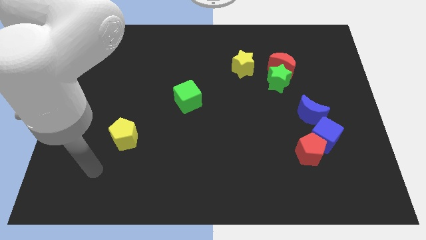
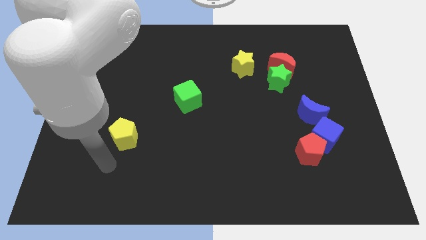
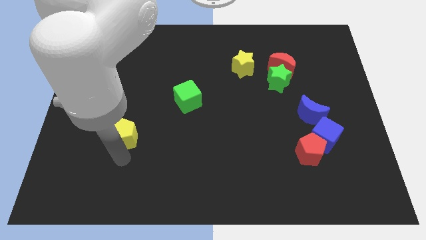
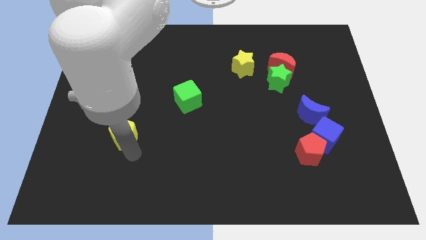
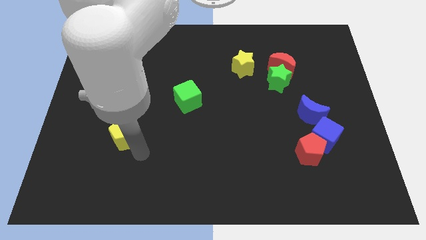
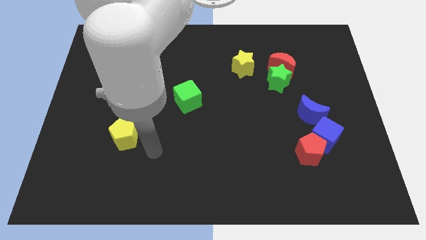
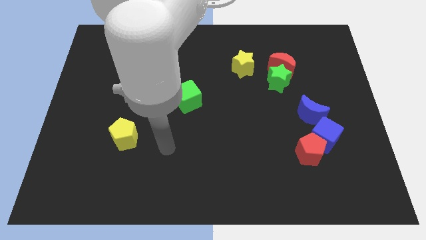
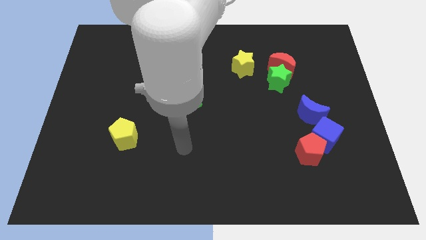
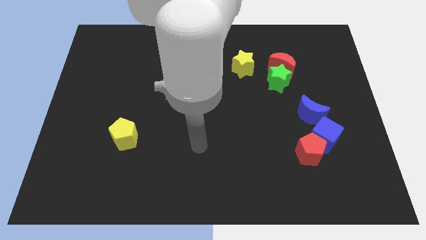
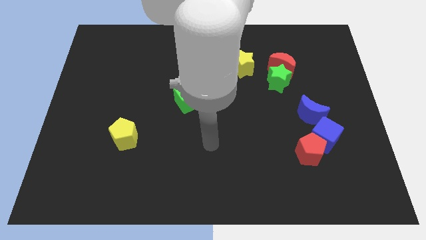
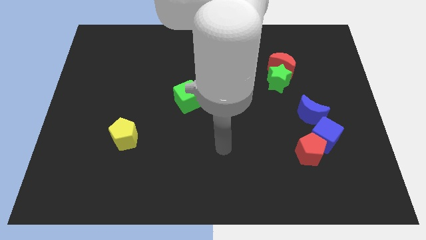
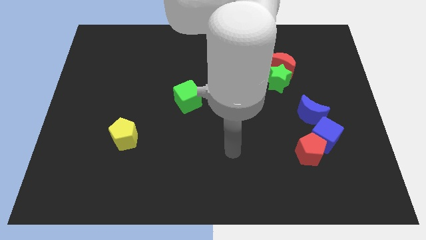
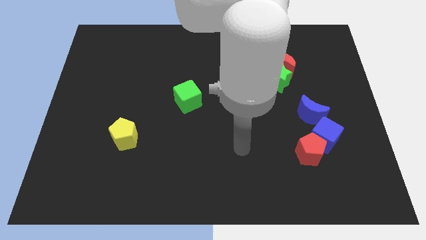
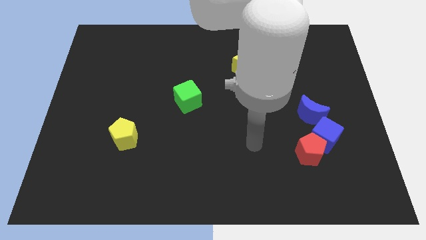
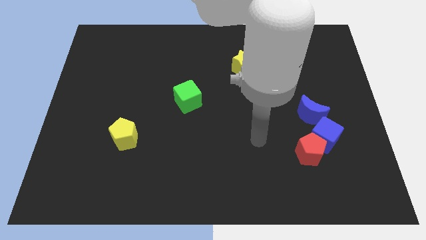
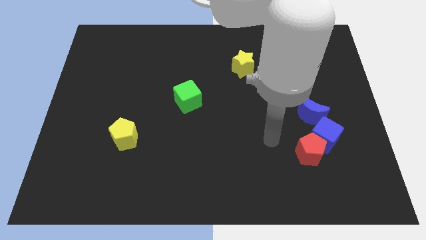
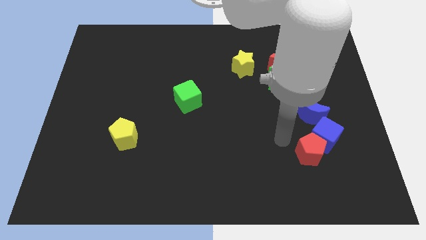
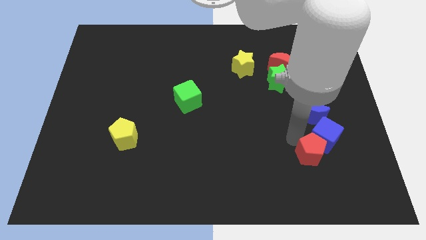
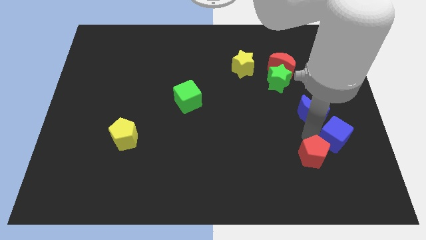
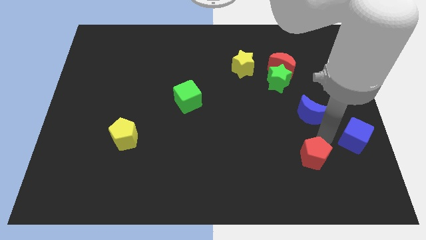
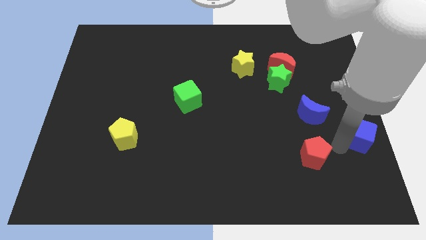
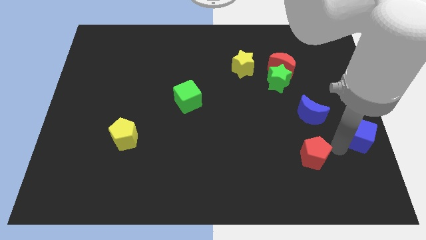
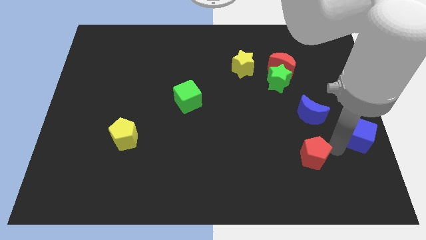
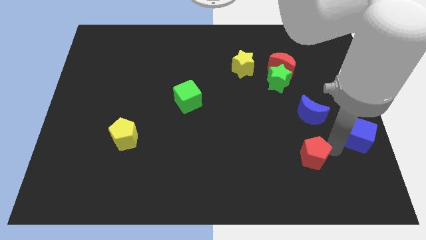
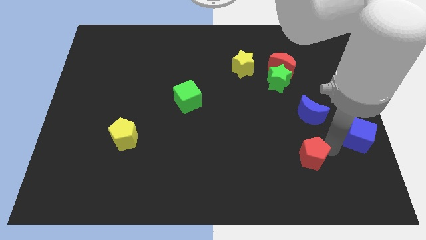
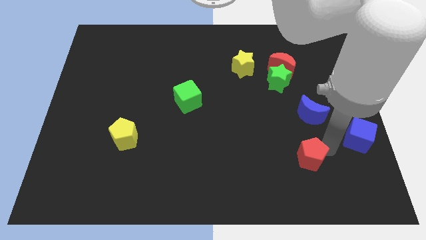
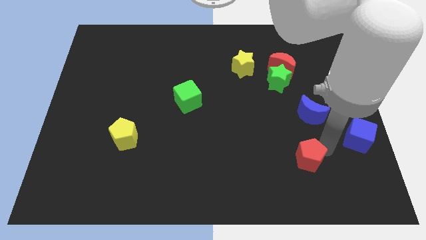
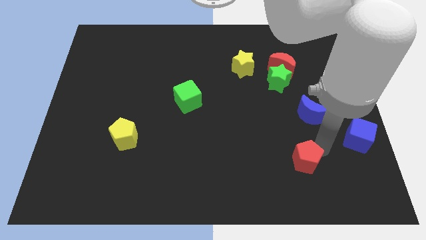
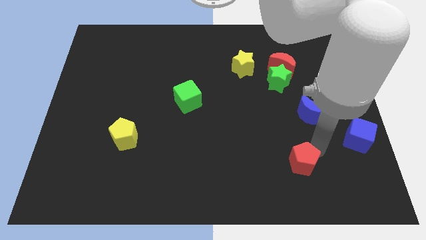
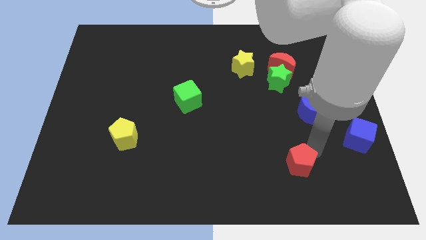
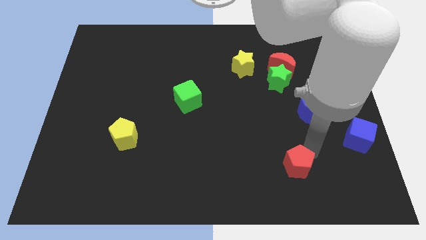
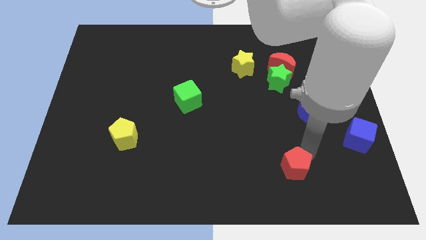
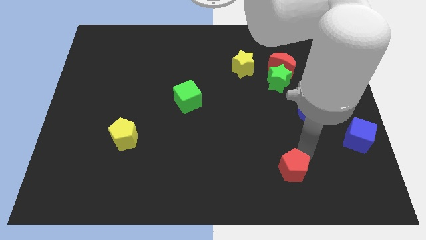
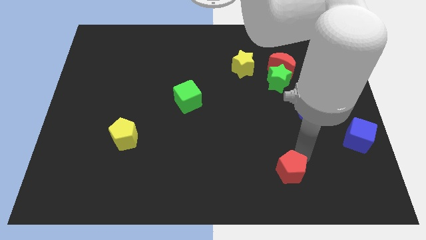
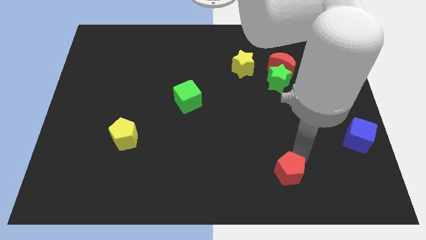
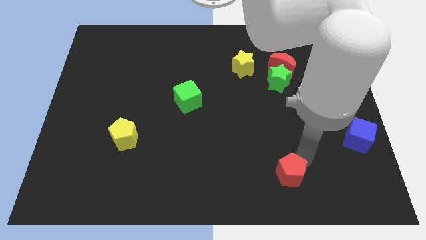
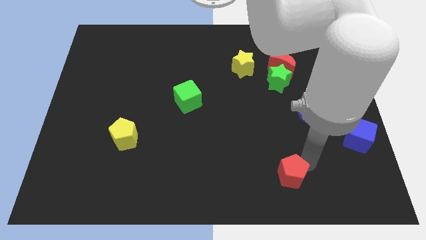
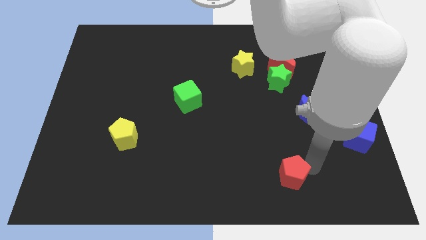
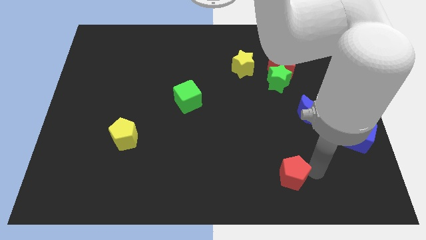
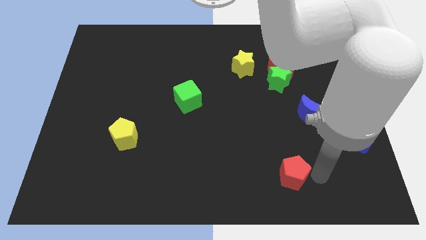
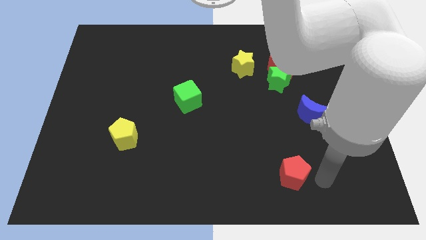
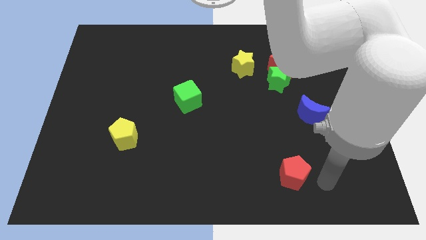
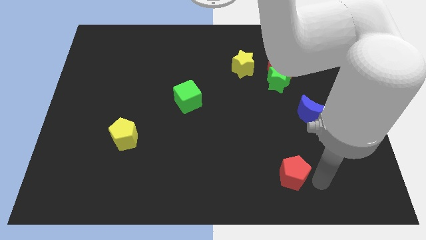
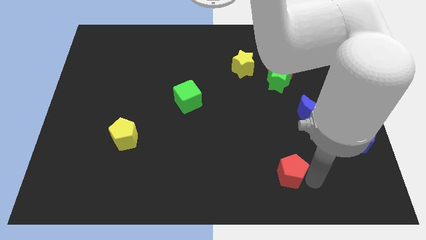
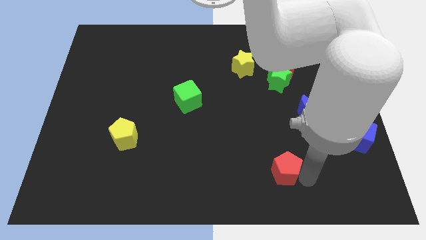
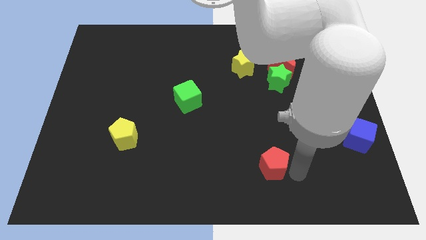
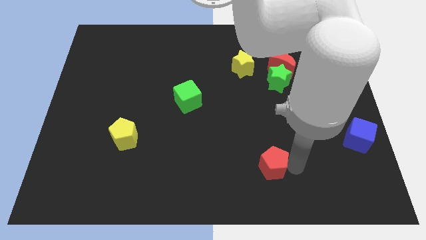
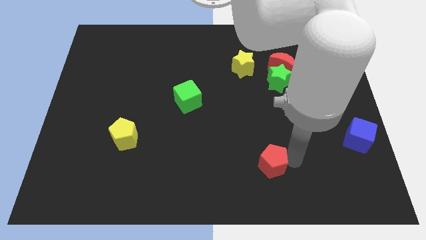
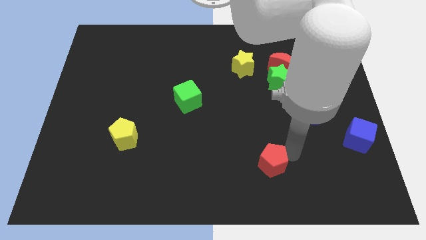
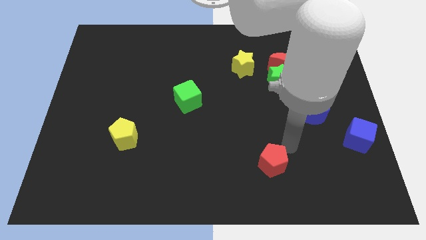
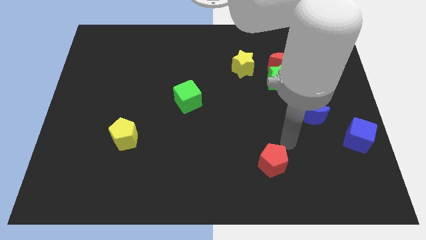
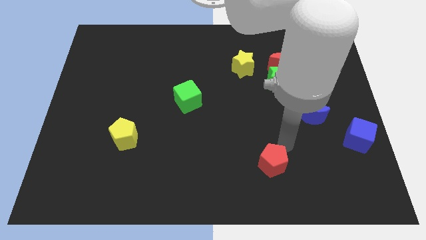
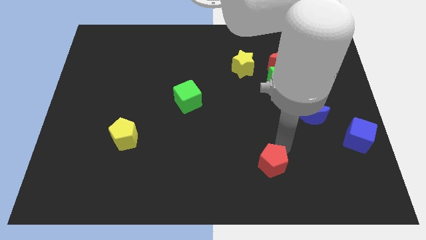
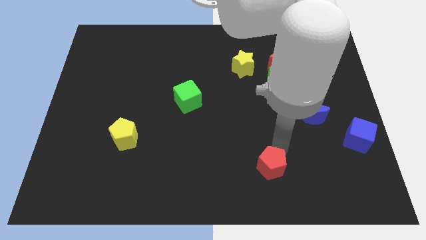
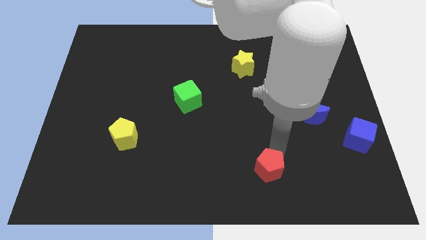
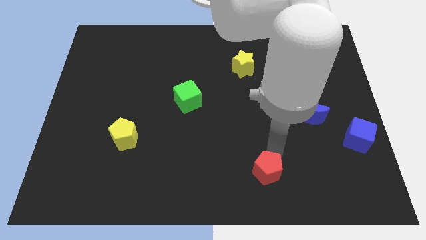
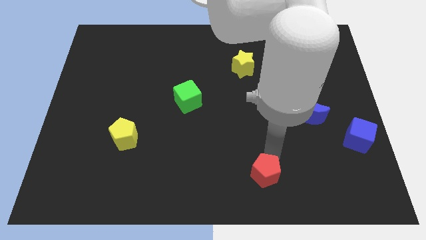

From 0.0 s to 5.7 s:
move the red pentagon to the bottom side
